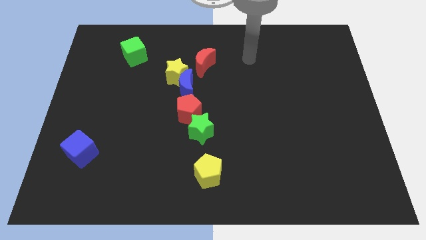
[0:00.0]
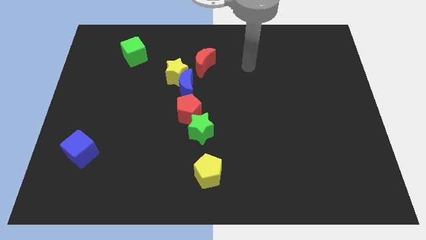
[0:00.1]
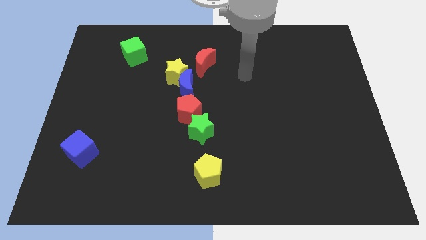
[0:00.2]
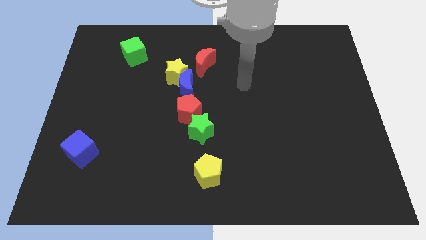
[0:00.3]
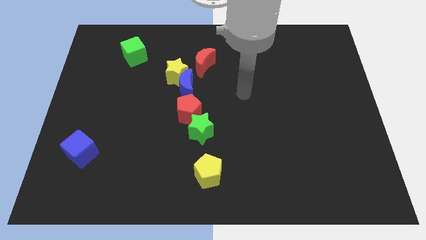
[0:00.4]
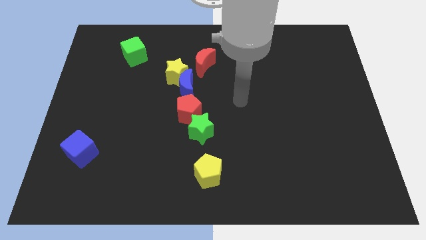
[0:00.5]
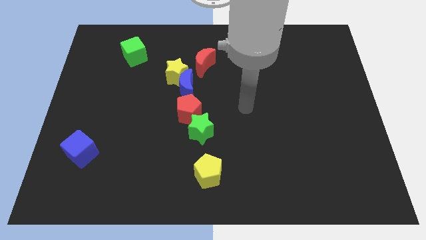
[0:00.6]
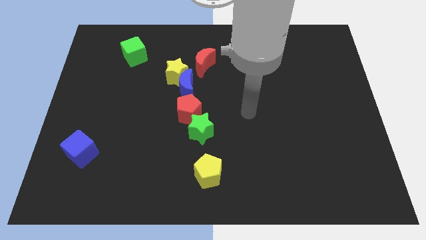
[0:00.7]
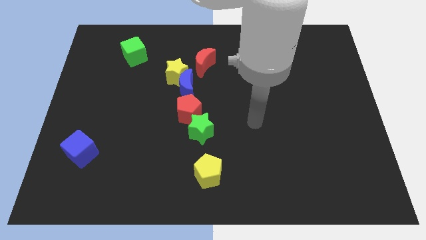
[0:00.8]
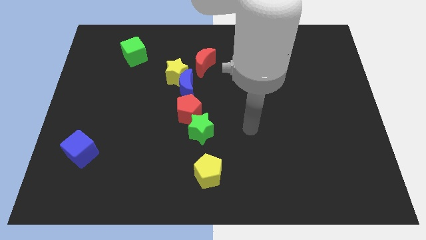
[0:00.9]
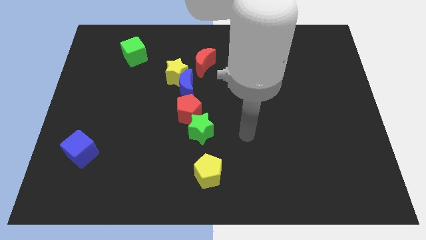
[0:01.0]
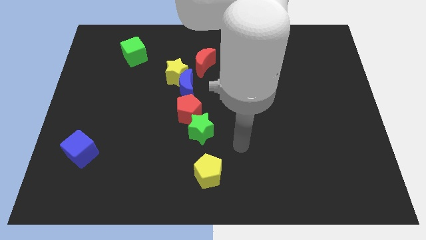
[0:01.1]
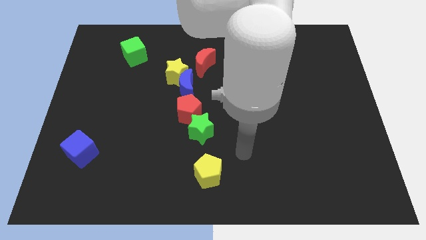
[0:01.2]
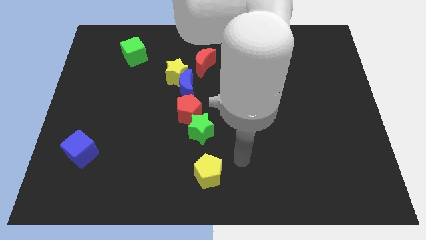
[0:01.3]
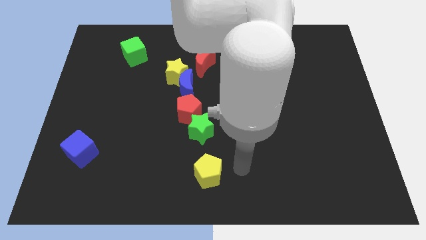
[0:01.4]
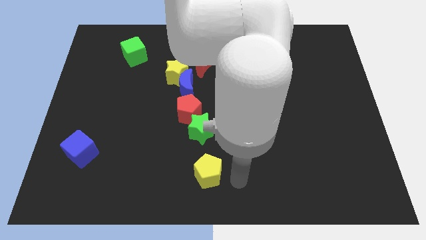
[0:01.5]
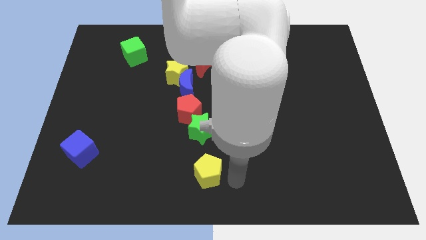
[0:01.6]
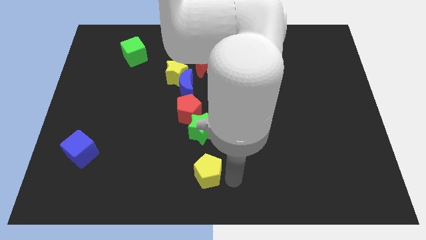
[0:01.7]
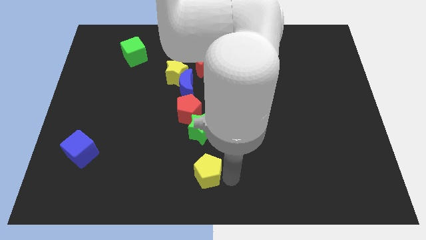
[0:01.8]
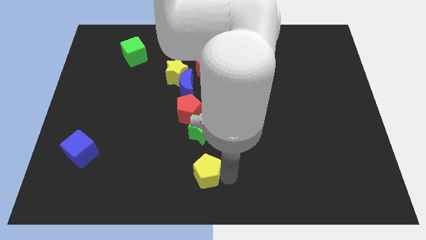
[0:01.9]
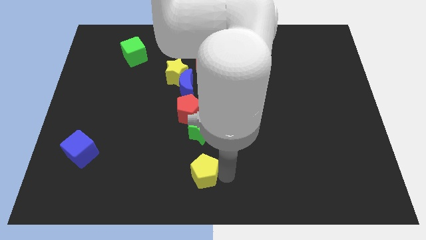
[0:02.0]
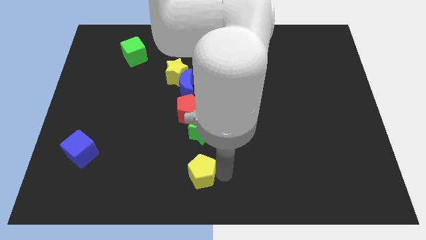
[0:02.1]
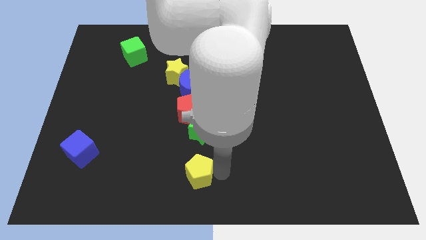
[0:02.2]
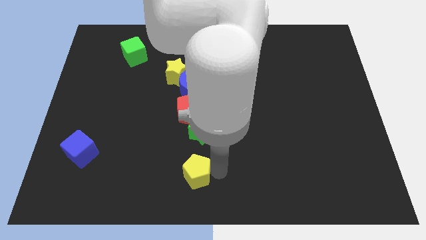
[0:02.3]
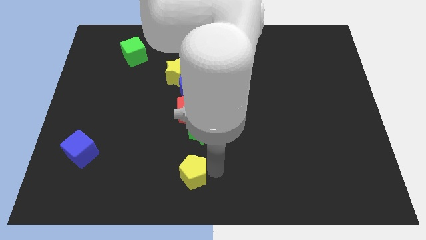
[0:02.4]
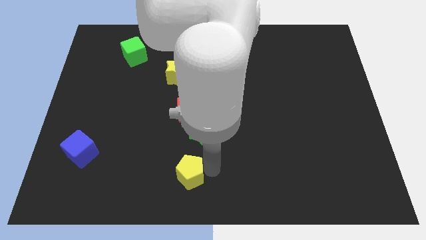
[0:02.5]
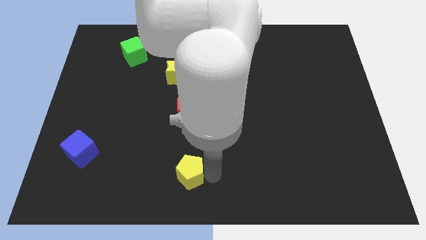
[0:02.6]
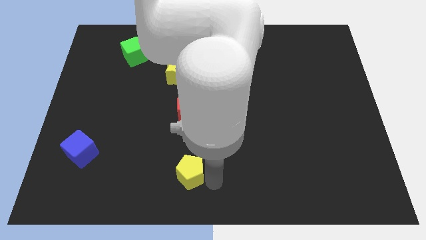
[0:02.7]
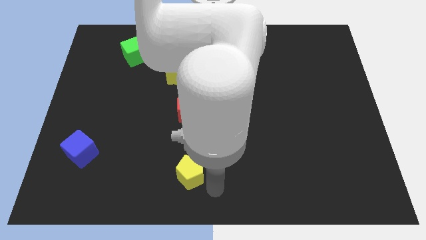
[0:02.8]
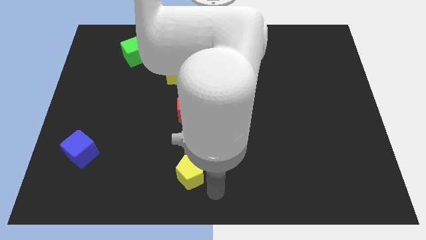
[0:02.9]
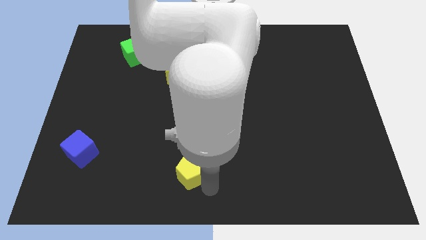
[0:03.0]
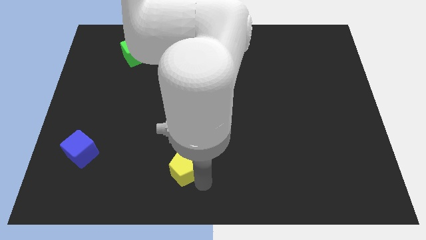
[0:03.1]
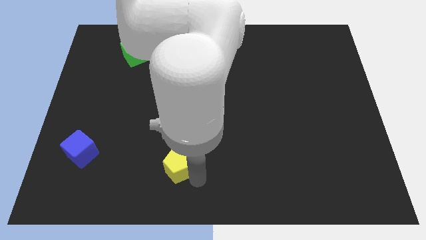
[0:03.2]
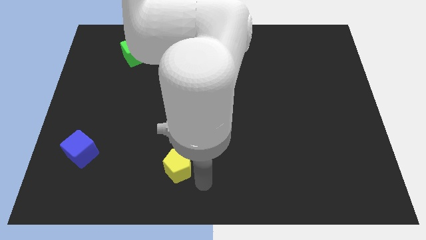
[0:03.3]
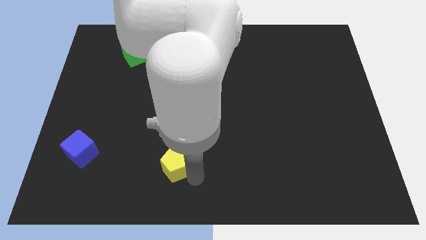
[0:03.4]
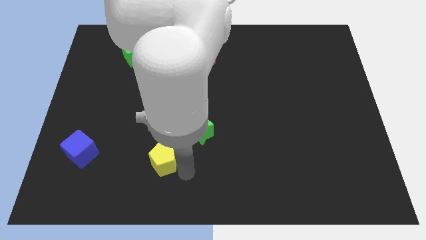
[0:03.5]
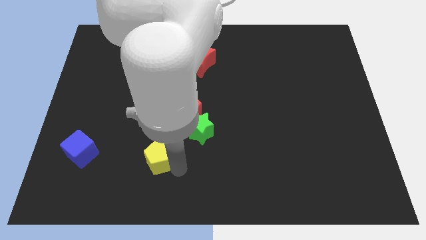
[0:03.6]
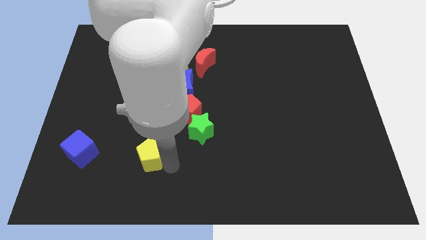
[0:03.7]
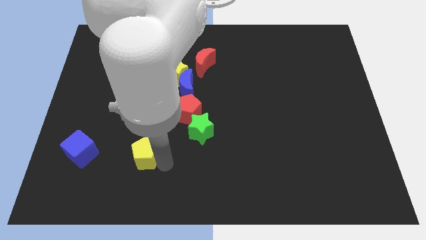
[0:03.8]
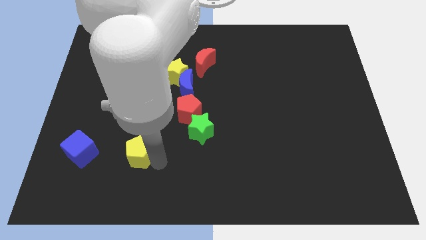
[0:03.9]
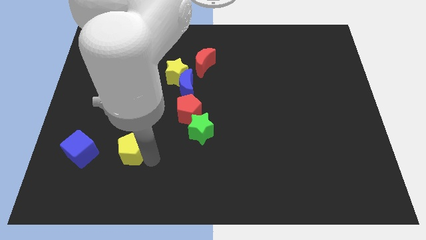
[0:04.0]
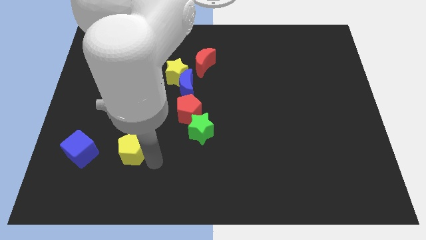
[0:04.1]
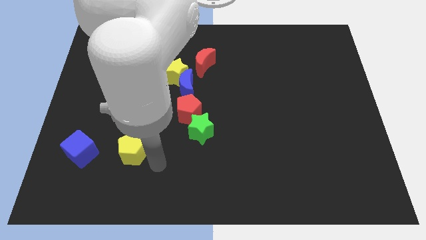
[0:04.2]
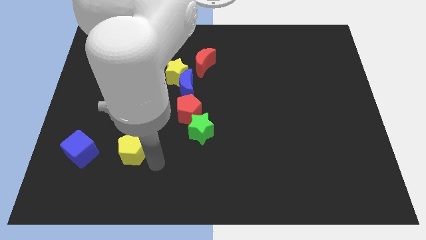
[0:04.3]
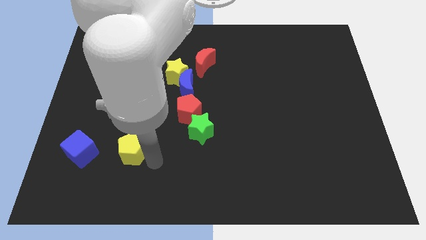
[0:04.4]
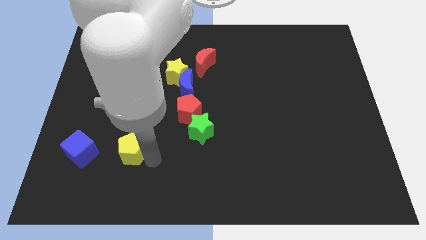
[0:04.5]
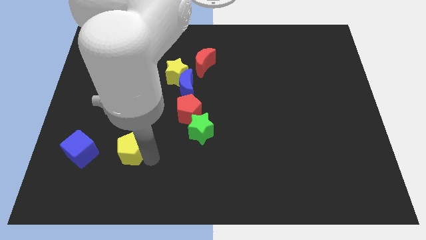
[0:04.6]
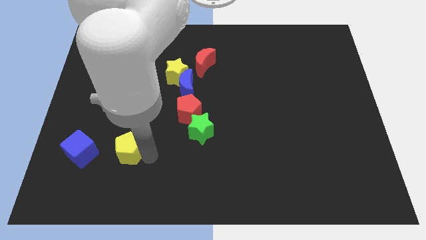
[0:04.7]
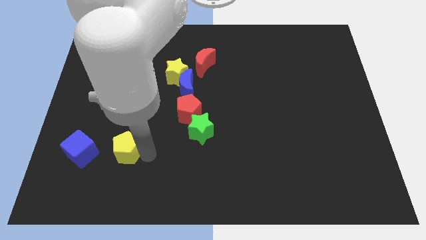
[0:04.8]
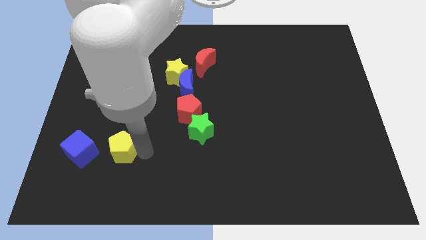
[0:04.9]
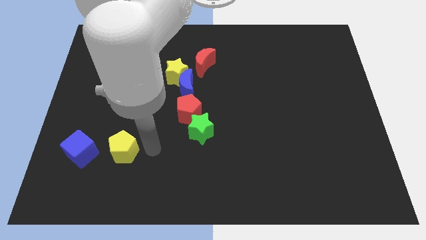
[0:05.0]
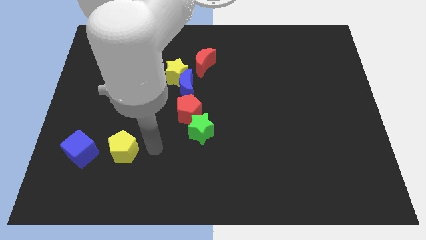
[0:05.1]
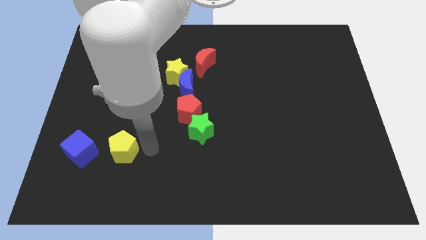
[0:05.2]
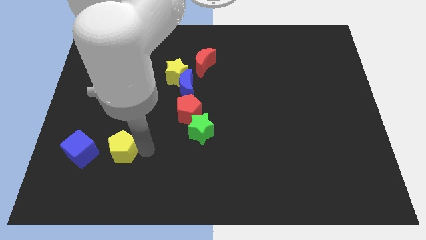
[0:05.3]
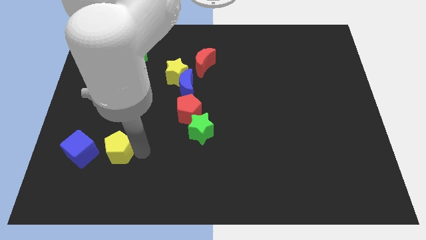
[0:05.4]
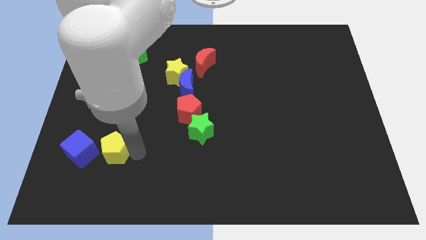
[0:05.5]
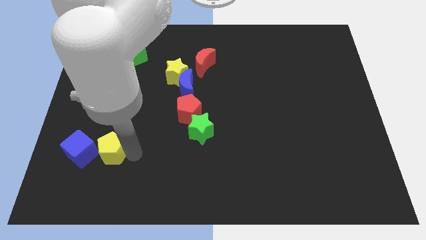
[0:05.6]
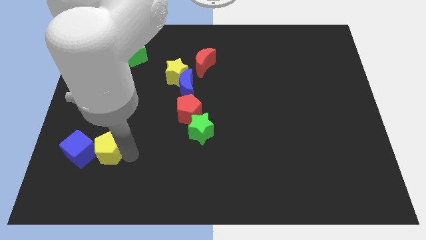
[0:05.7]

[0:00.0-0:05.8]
move the yellow pentagon towards the blue cube

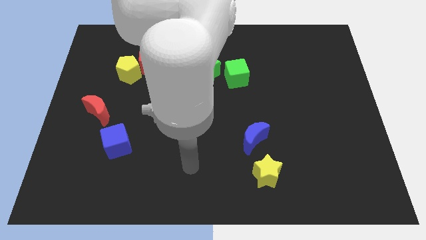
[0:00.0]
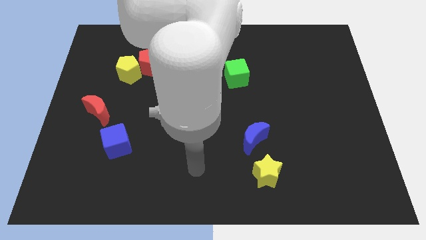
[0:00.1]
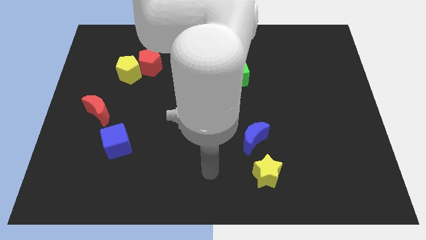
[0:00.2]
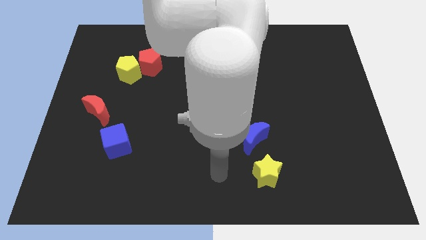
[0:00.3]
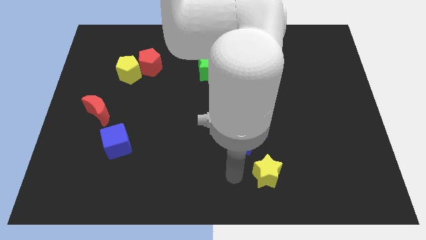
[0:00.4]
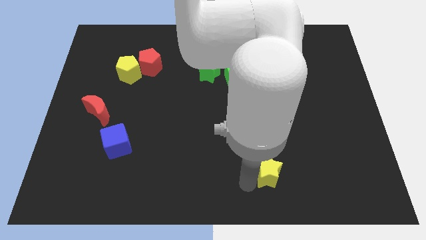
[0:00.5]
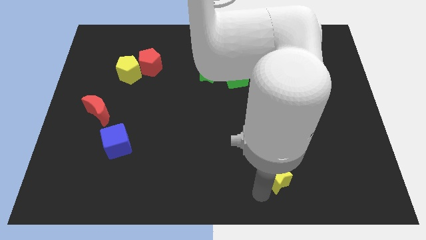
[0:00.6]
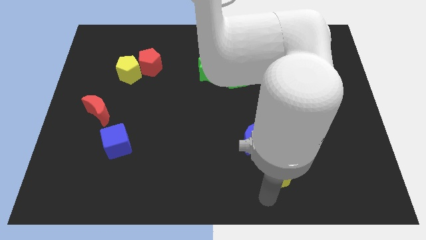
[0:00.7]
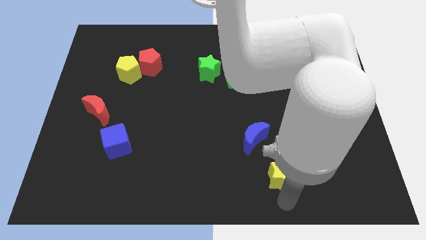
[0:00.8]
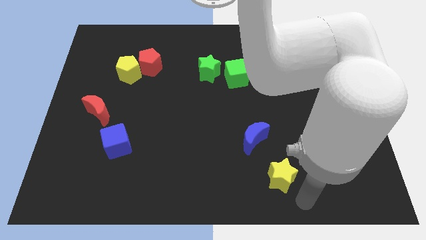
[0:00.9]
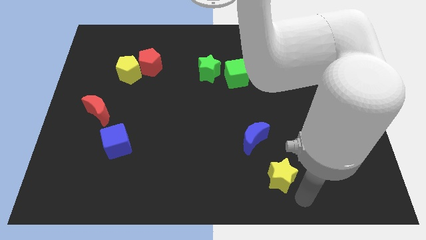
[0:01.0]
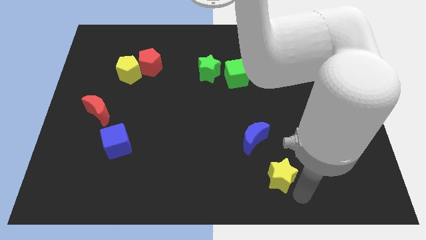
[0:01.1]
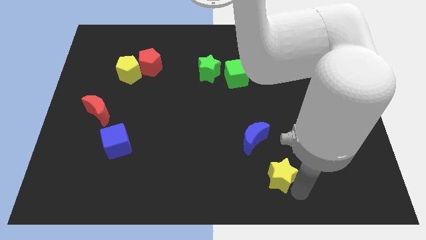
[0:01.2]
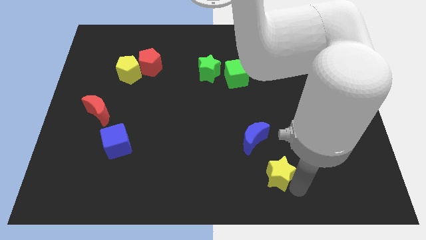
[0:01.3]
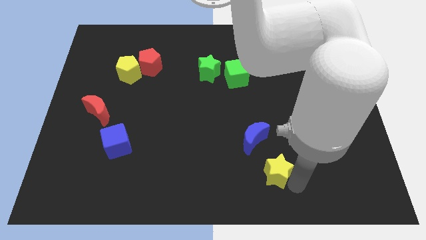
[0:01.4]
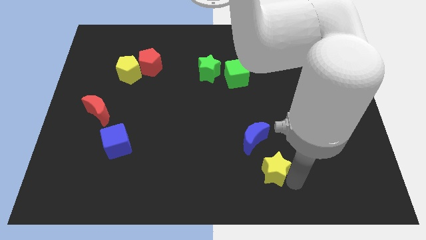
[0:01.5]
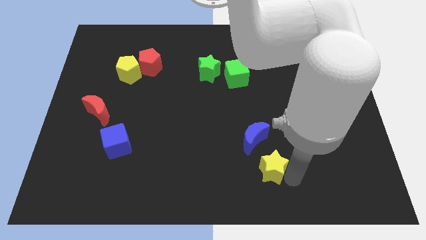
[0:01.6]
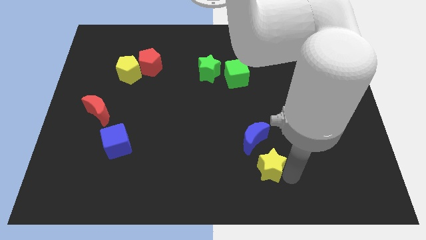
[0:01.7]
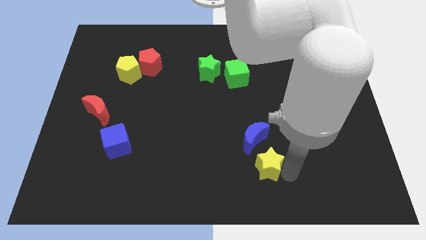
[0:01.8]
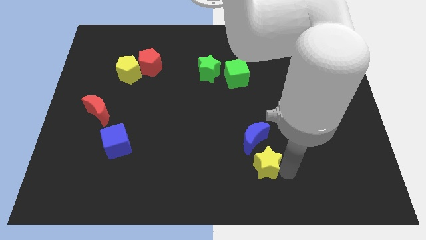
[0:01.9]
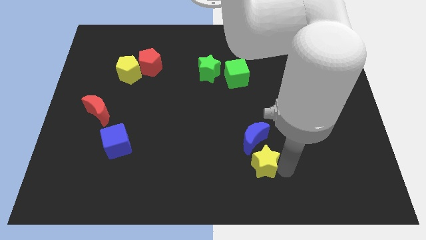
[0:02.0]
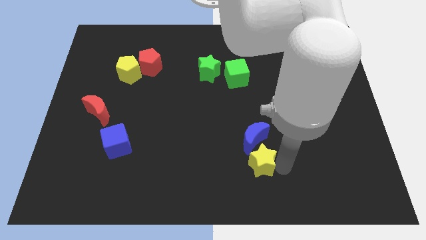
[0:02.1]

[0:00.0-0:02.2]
move the yellow star to the blue moon
